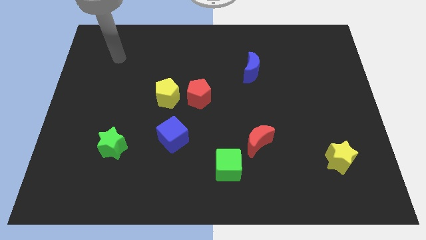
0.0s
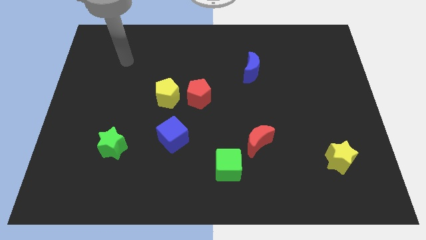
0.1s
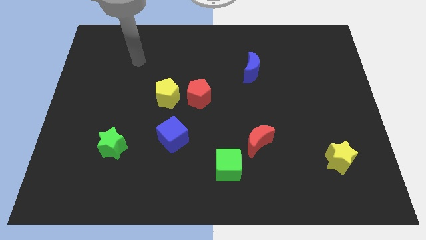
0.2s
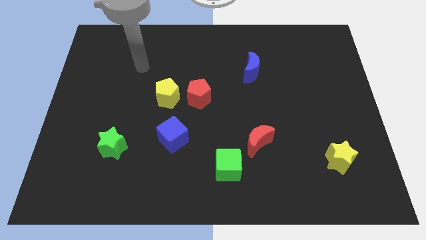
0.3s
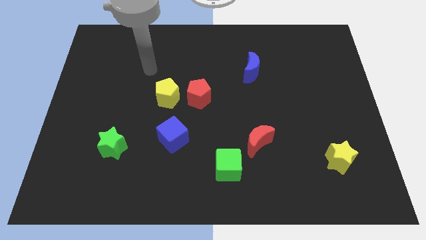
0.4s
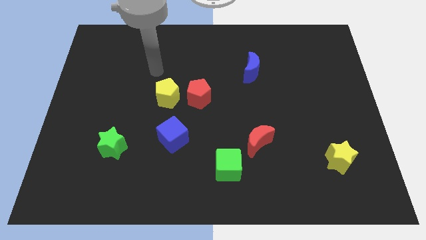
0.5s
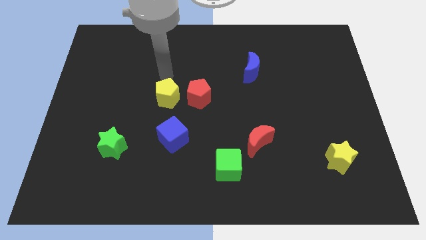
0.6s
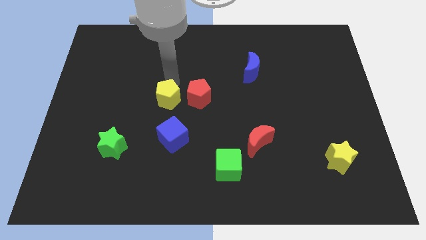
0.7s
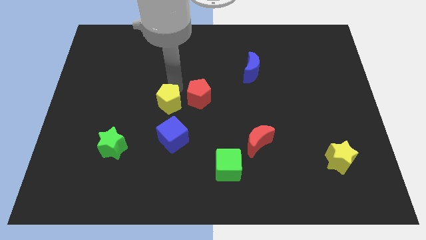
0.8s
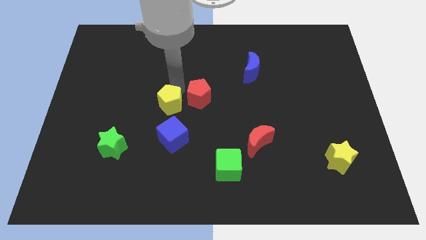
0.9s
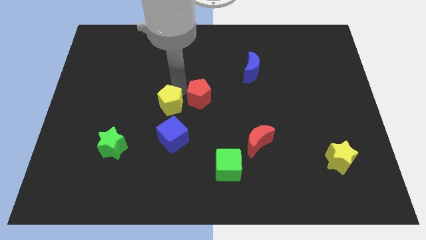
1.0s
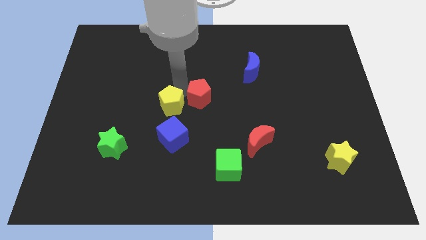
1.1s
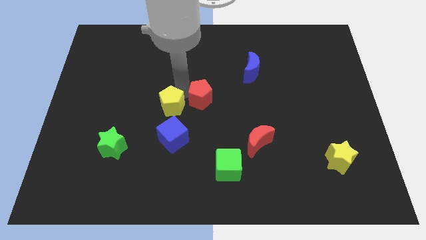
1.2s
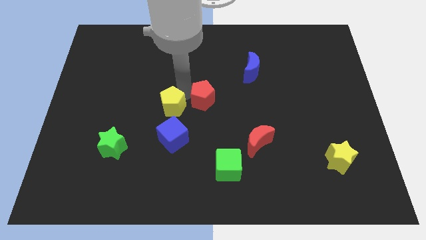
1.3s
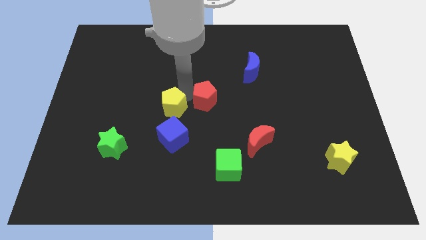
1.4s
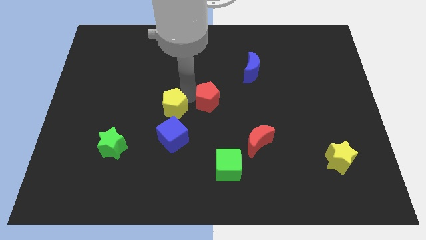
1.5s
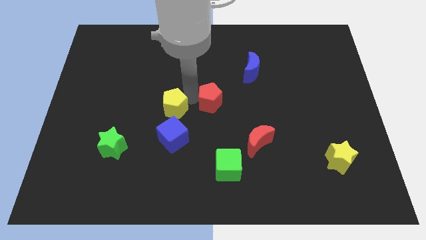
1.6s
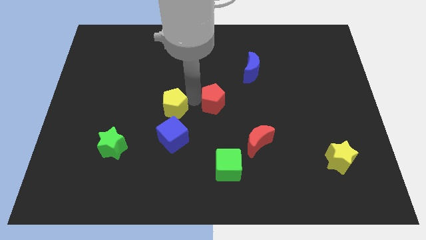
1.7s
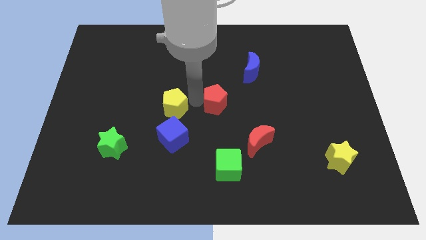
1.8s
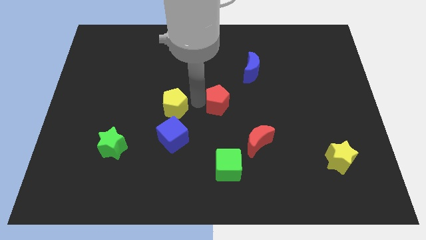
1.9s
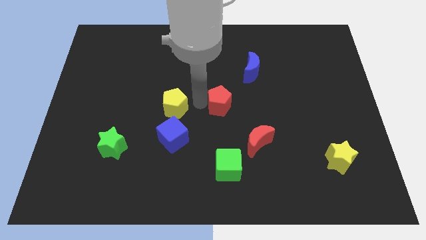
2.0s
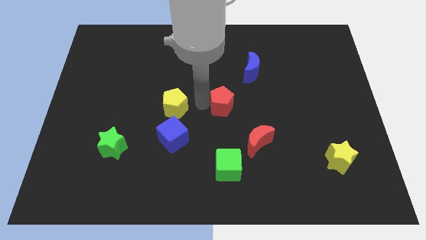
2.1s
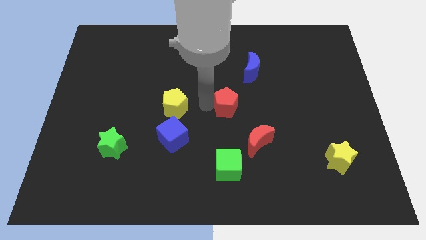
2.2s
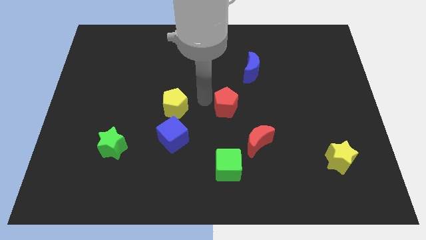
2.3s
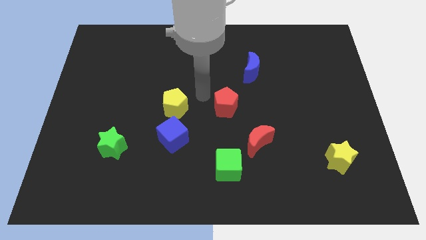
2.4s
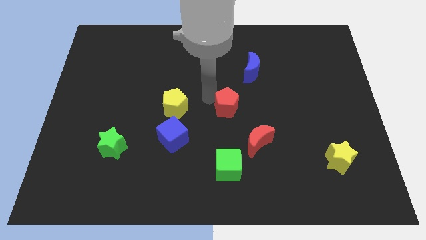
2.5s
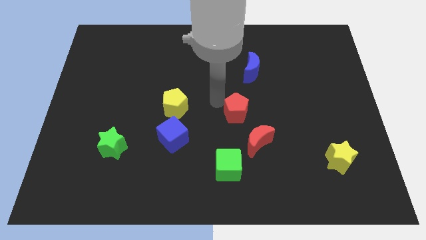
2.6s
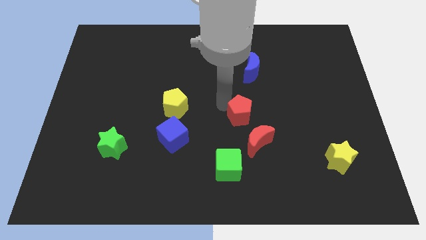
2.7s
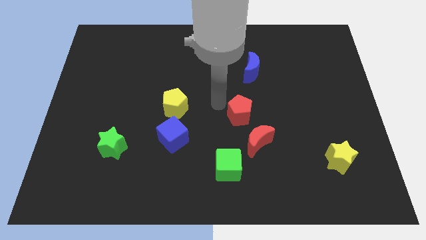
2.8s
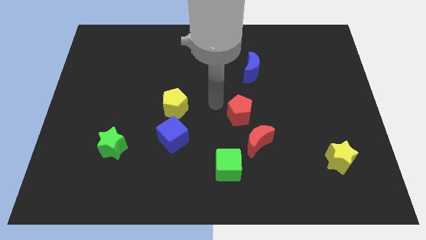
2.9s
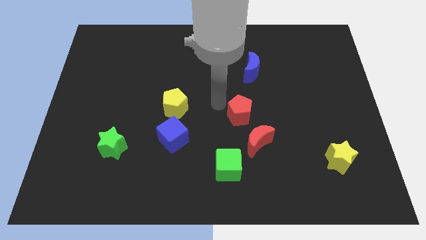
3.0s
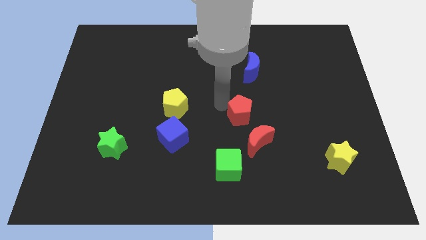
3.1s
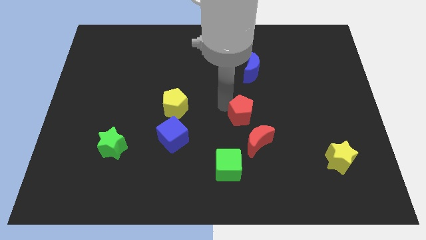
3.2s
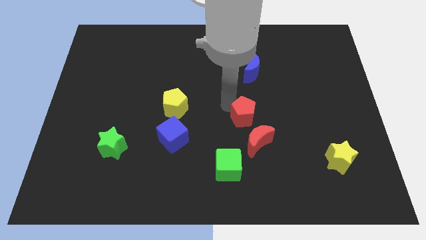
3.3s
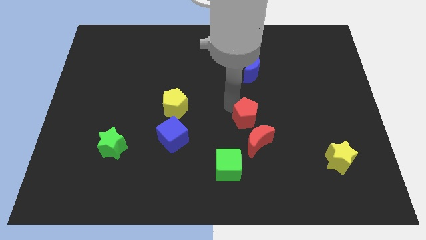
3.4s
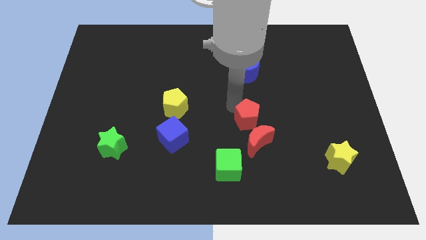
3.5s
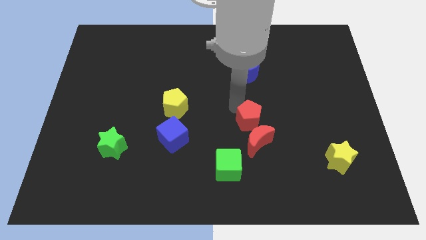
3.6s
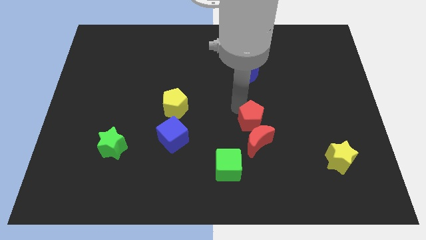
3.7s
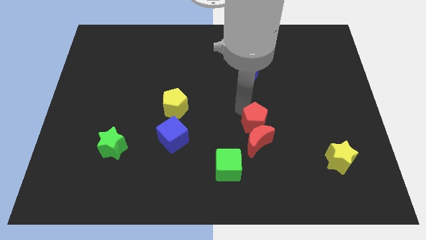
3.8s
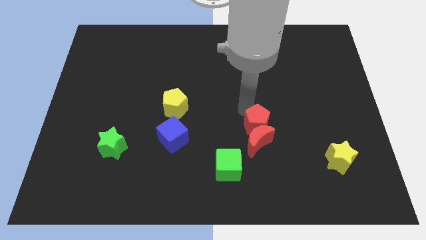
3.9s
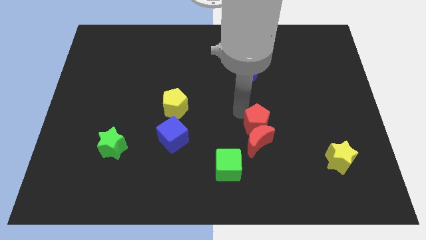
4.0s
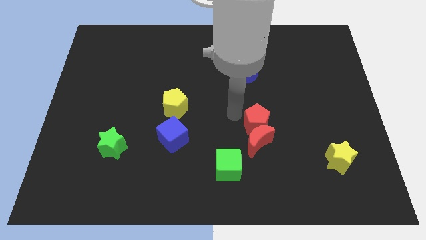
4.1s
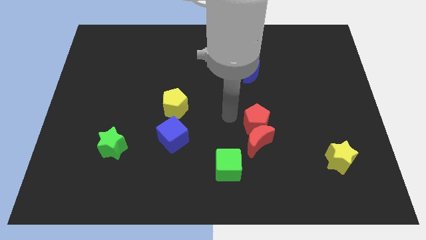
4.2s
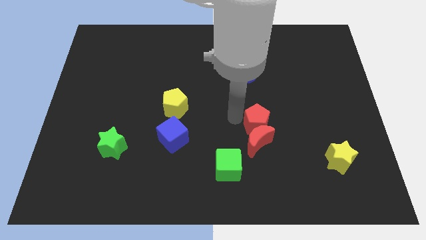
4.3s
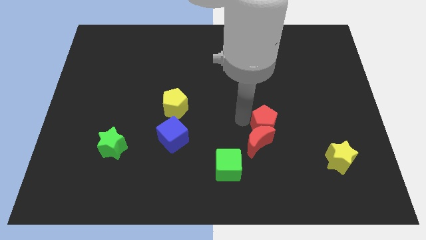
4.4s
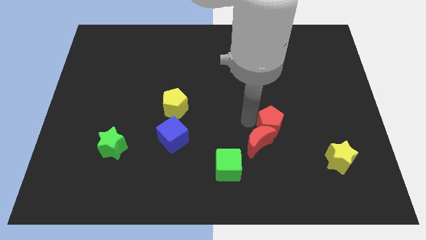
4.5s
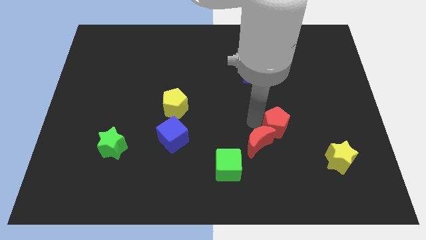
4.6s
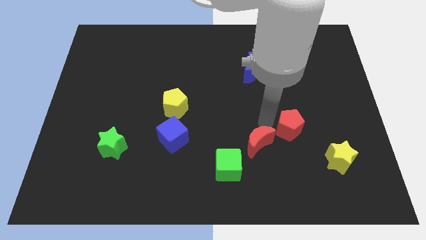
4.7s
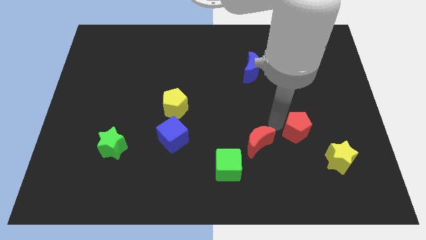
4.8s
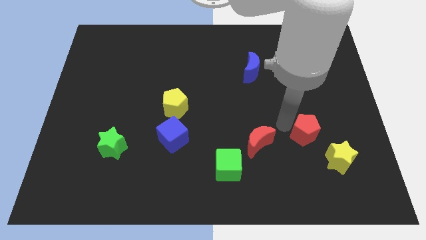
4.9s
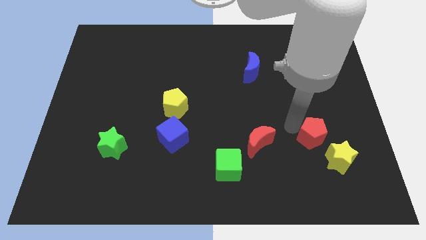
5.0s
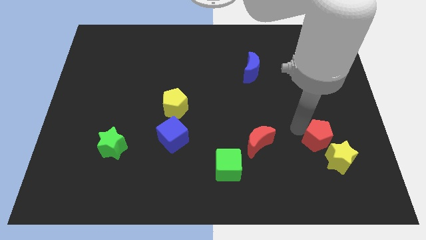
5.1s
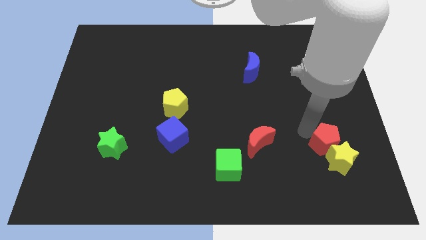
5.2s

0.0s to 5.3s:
move the red pentagon next to the yellow star

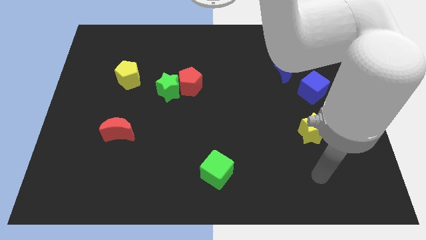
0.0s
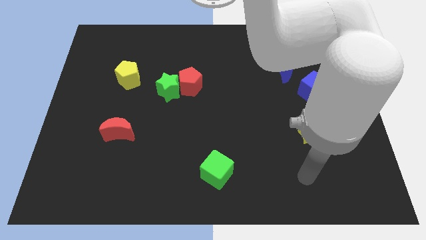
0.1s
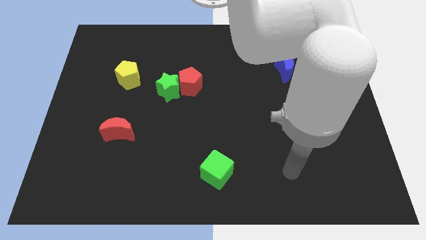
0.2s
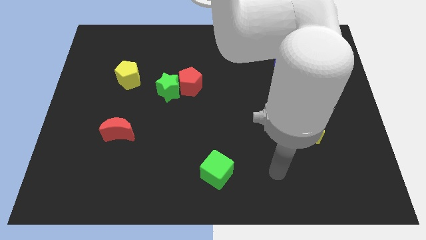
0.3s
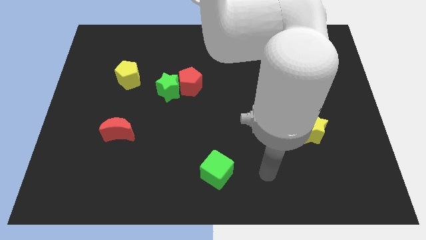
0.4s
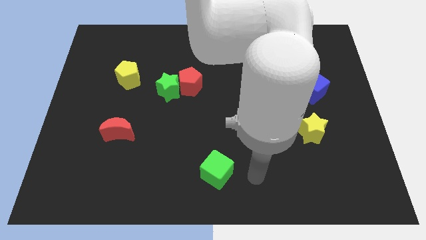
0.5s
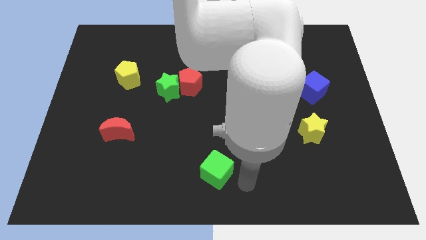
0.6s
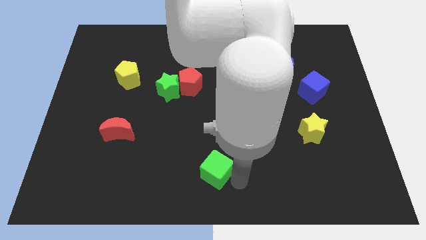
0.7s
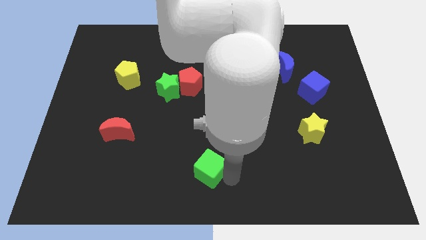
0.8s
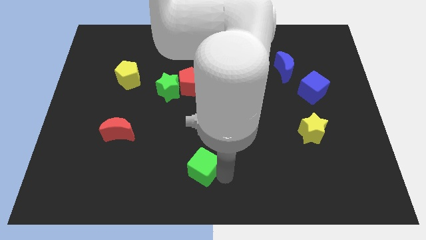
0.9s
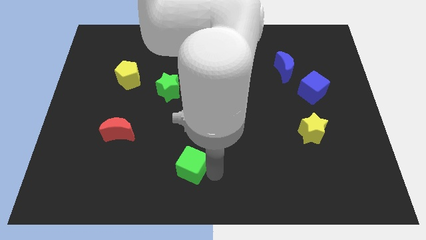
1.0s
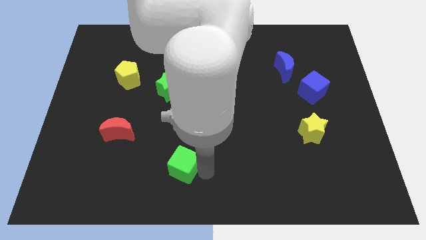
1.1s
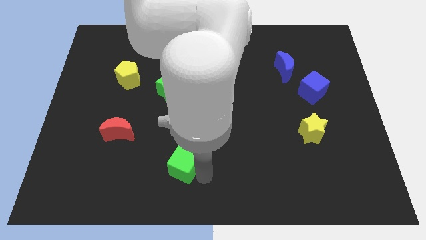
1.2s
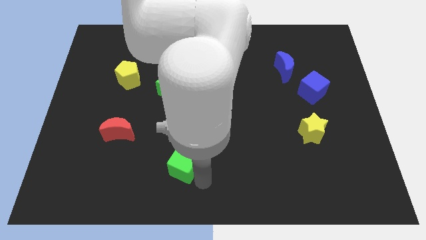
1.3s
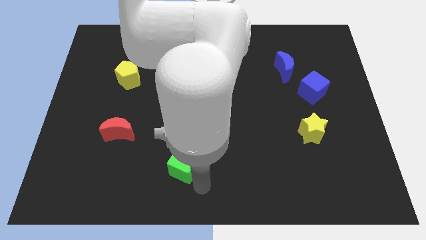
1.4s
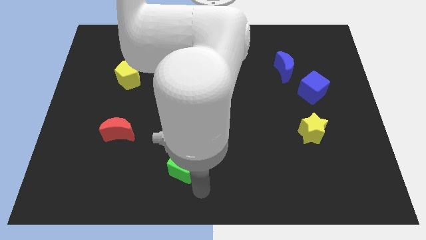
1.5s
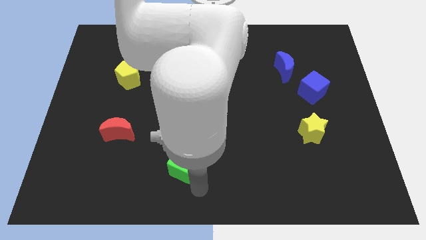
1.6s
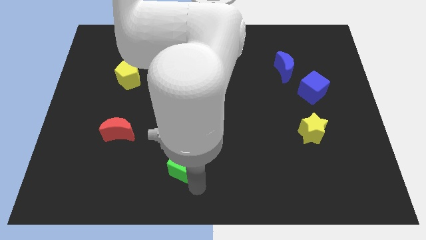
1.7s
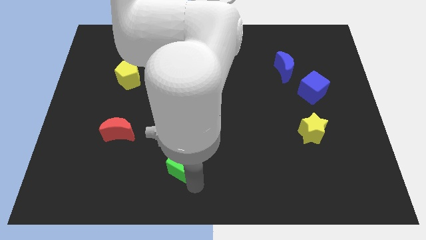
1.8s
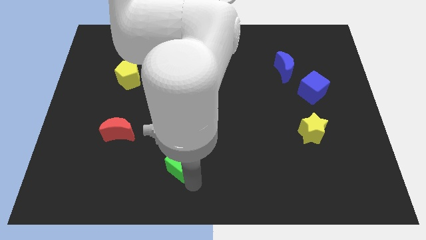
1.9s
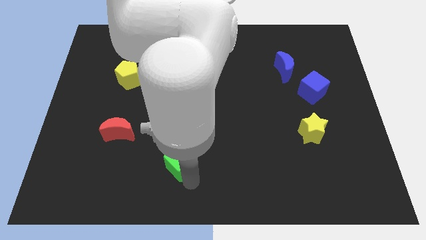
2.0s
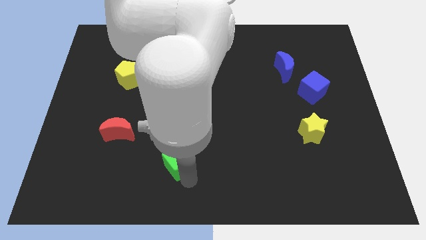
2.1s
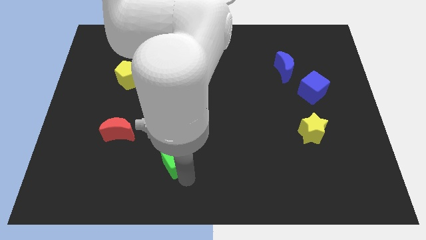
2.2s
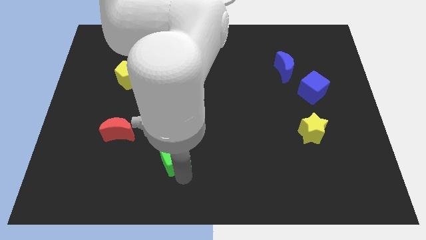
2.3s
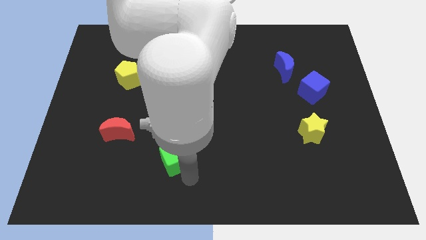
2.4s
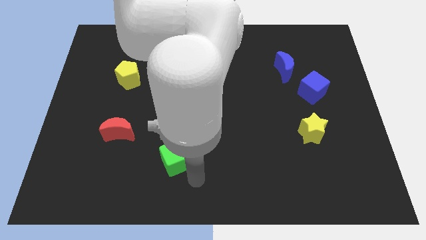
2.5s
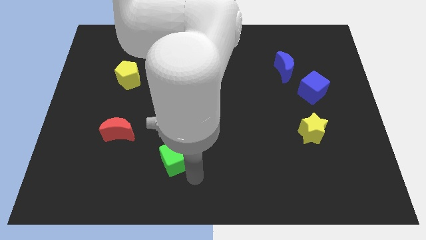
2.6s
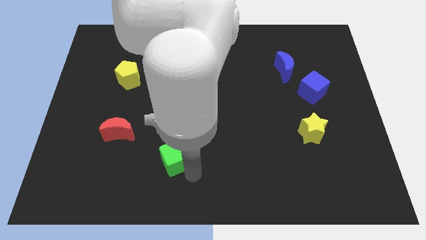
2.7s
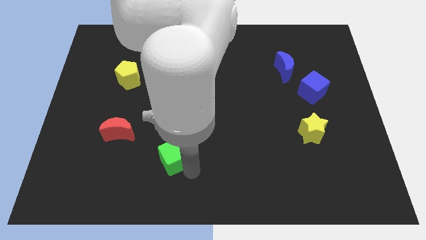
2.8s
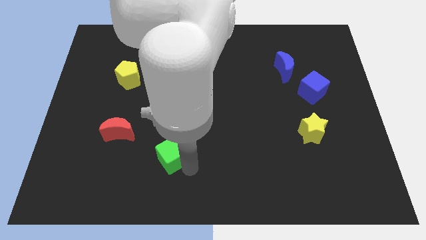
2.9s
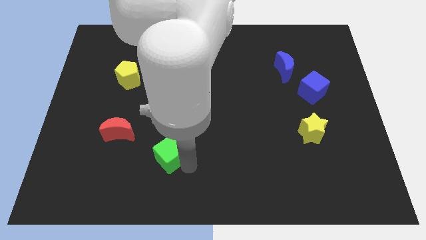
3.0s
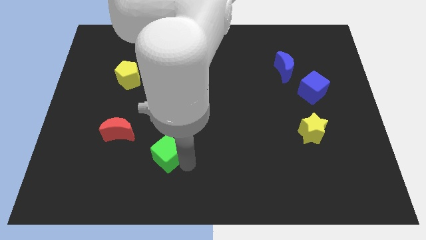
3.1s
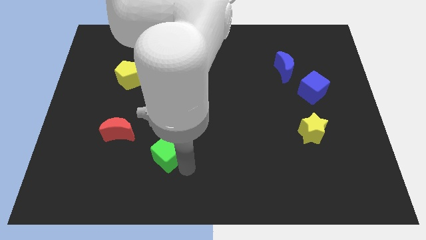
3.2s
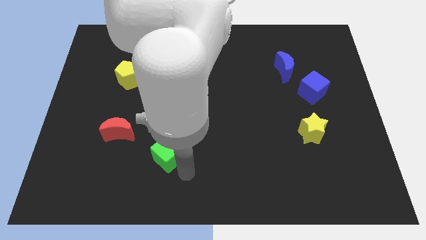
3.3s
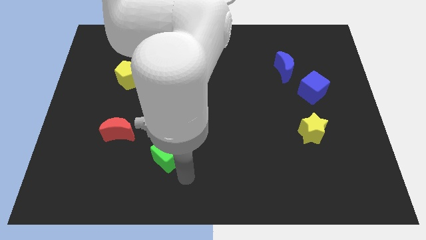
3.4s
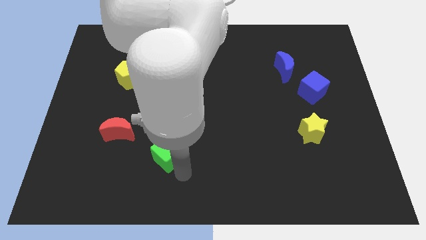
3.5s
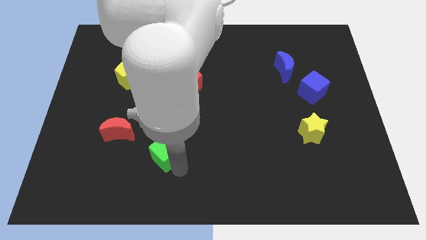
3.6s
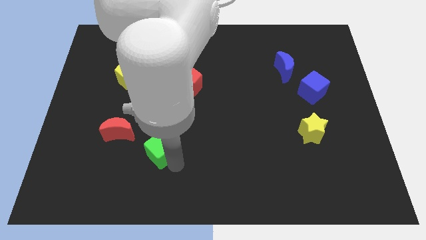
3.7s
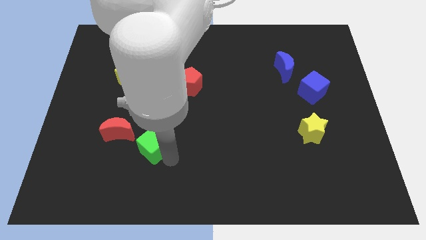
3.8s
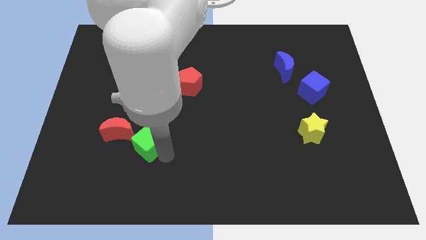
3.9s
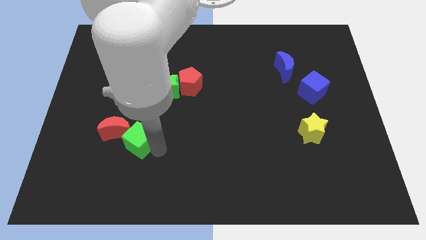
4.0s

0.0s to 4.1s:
push the green cube towards the red moon
